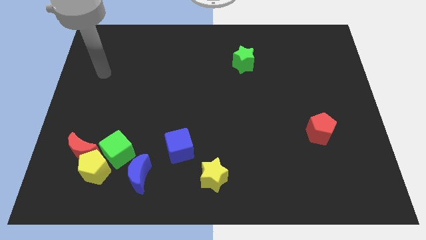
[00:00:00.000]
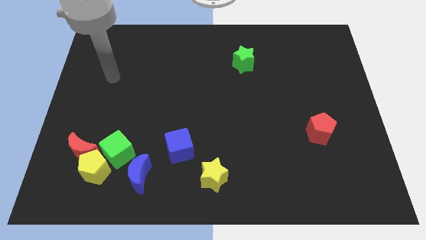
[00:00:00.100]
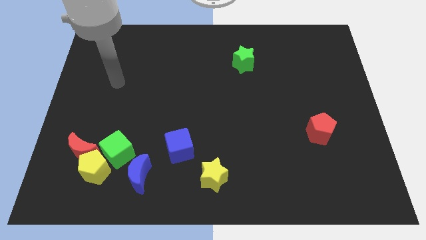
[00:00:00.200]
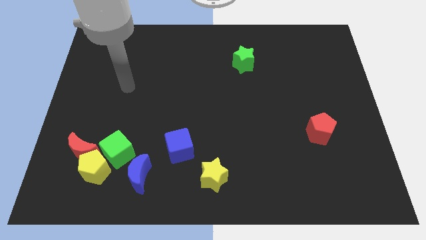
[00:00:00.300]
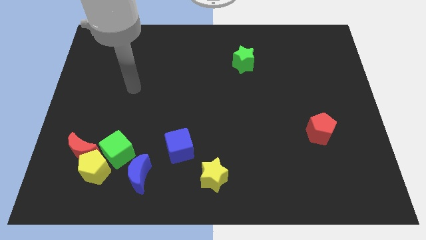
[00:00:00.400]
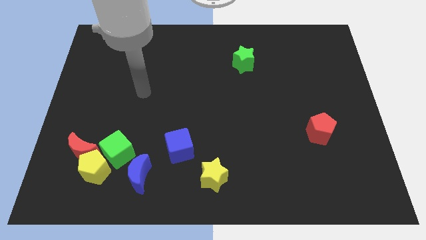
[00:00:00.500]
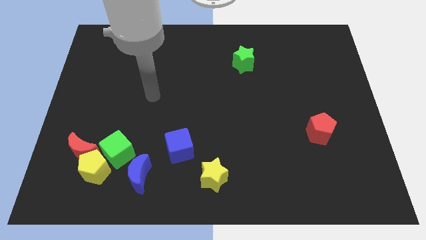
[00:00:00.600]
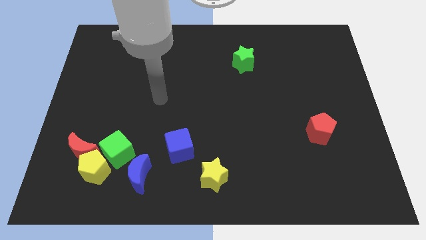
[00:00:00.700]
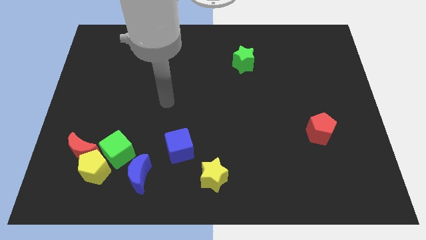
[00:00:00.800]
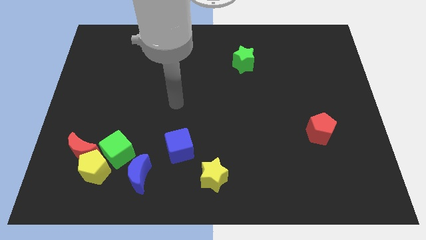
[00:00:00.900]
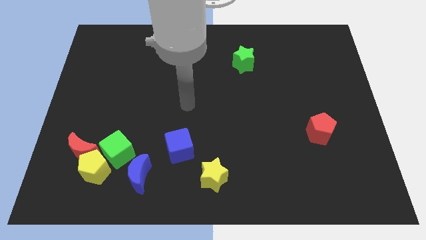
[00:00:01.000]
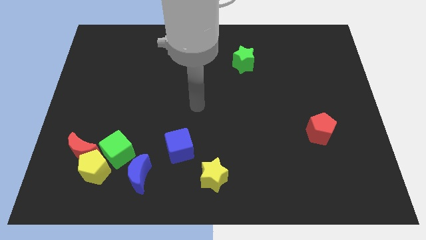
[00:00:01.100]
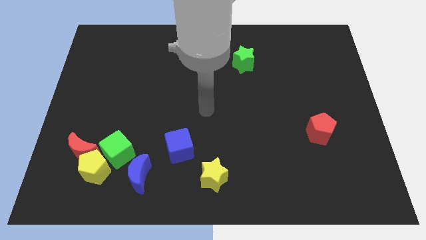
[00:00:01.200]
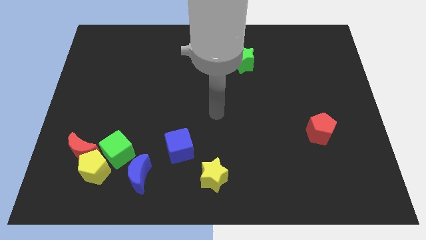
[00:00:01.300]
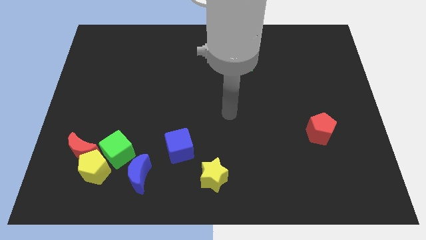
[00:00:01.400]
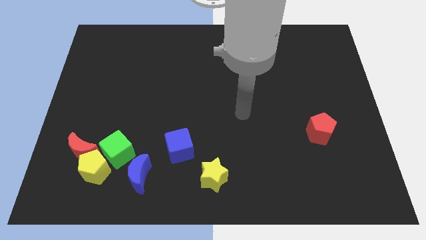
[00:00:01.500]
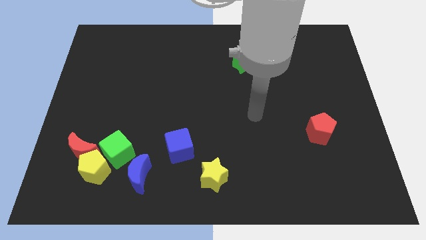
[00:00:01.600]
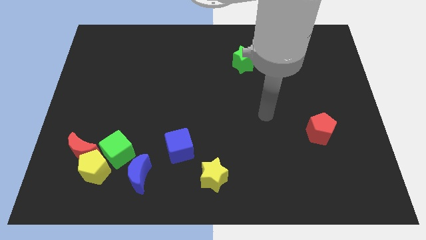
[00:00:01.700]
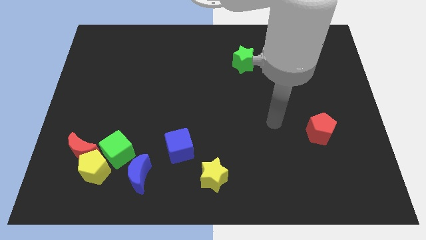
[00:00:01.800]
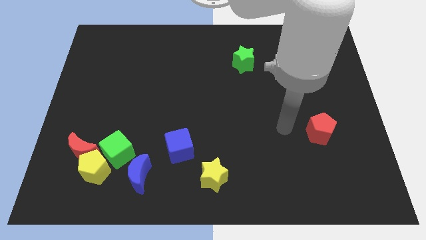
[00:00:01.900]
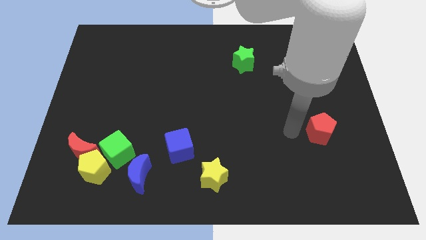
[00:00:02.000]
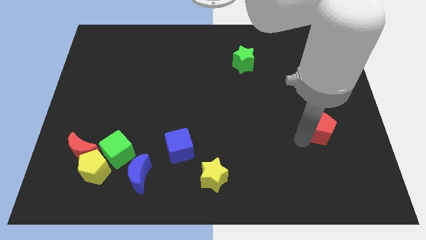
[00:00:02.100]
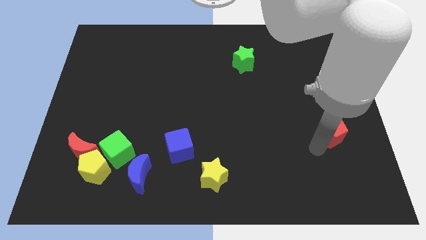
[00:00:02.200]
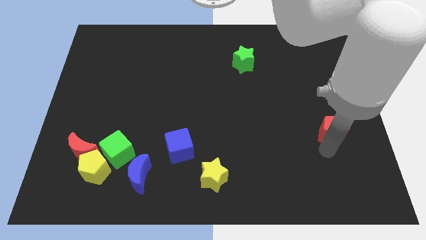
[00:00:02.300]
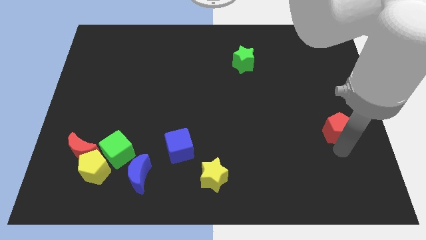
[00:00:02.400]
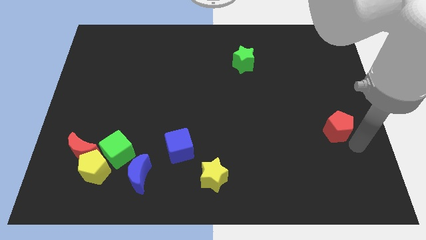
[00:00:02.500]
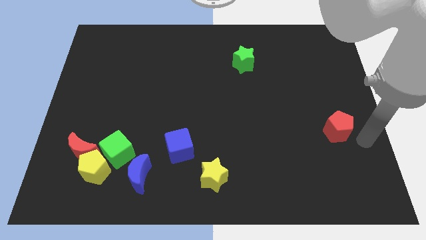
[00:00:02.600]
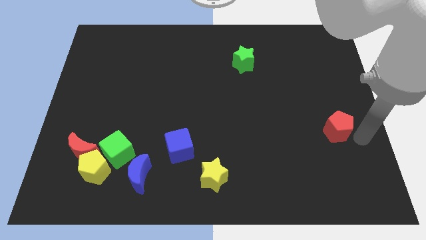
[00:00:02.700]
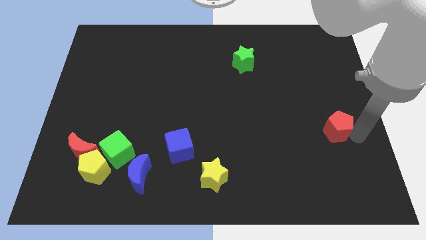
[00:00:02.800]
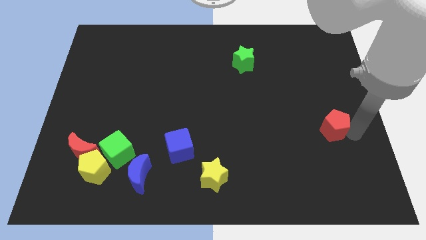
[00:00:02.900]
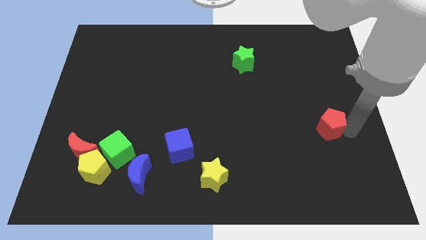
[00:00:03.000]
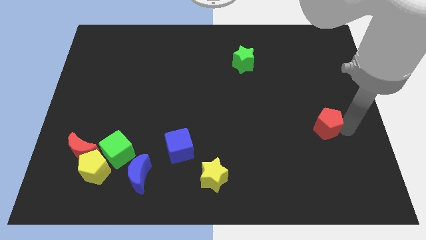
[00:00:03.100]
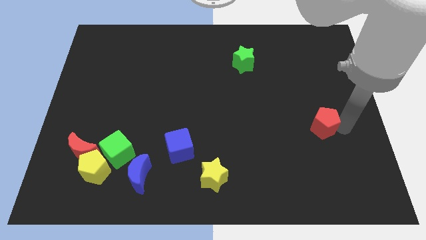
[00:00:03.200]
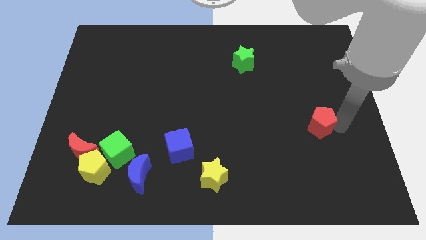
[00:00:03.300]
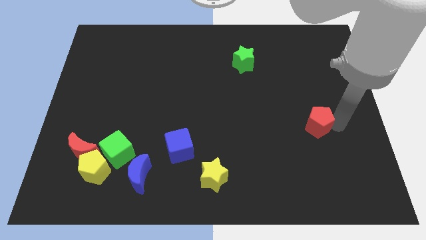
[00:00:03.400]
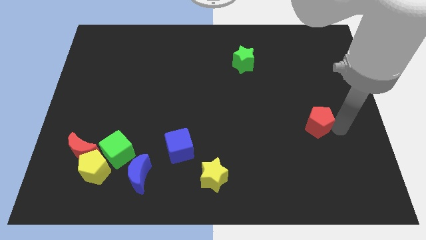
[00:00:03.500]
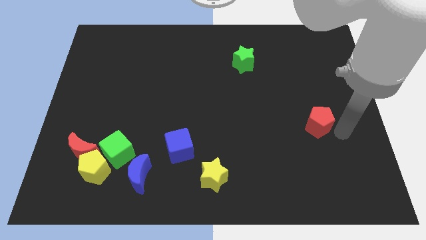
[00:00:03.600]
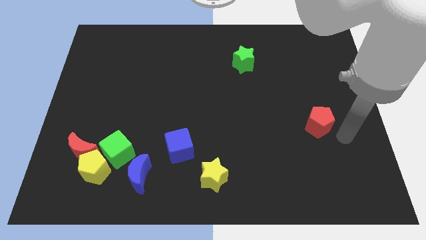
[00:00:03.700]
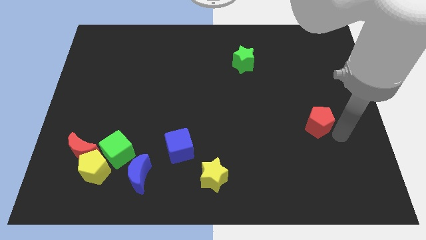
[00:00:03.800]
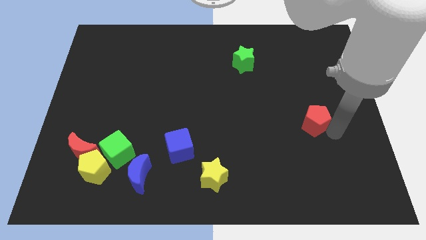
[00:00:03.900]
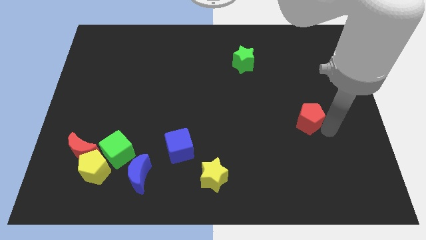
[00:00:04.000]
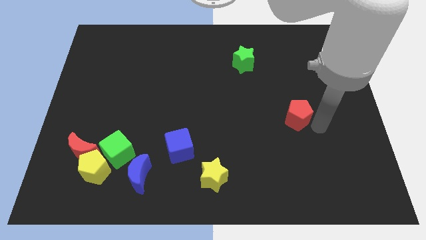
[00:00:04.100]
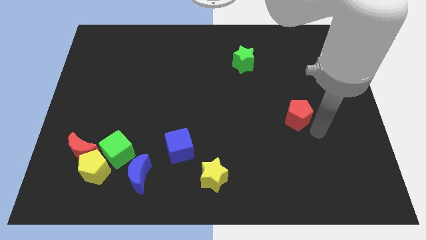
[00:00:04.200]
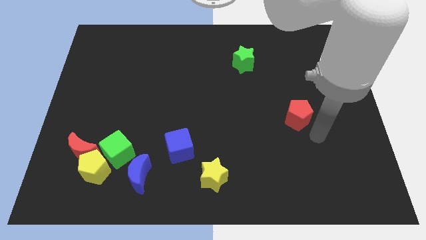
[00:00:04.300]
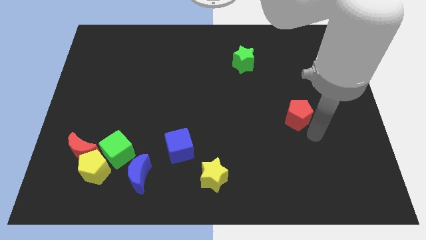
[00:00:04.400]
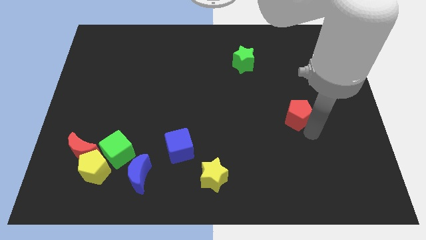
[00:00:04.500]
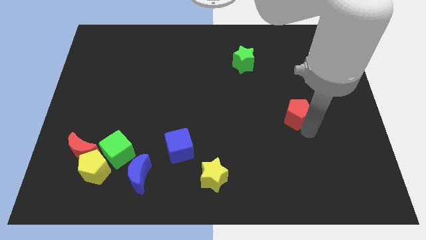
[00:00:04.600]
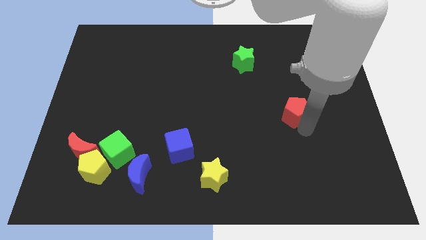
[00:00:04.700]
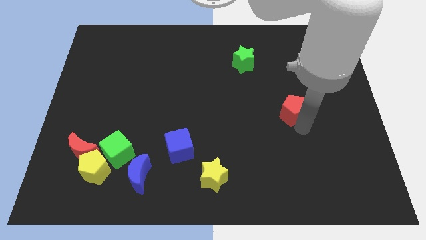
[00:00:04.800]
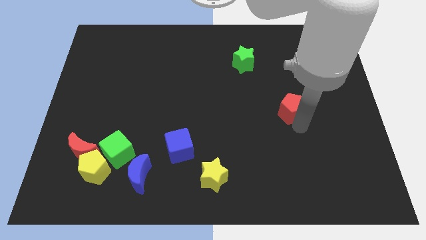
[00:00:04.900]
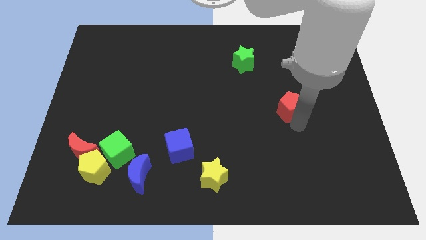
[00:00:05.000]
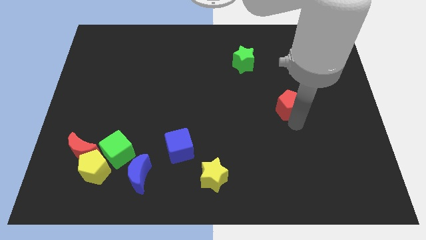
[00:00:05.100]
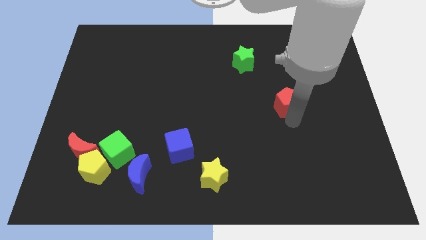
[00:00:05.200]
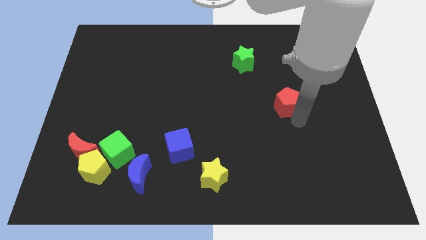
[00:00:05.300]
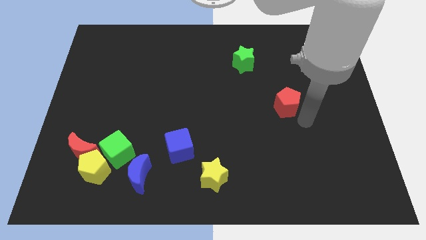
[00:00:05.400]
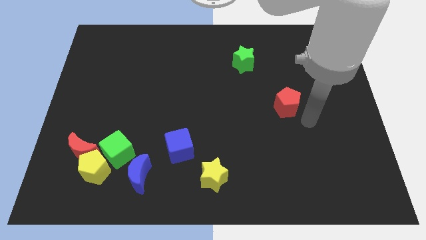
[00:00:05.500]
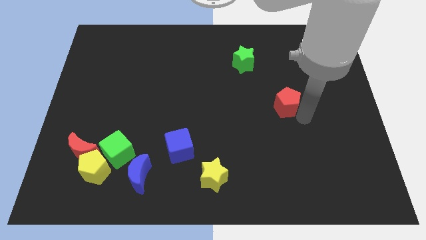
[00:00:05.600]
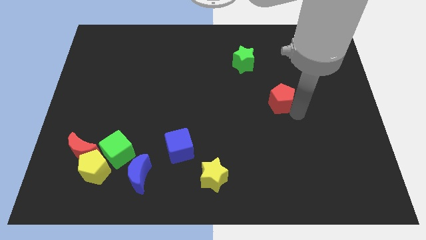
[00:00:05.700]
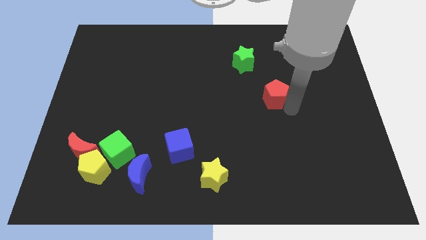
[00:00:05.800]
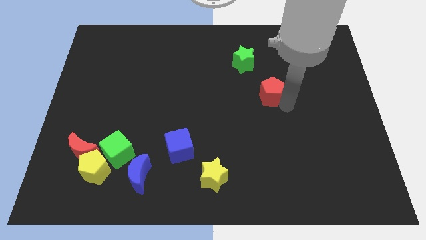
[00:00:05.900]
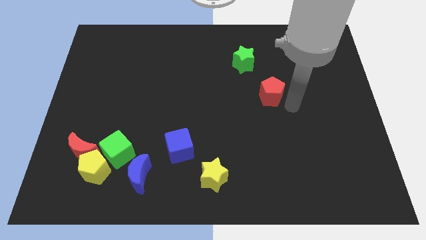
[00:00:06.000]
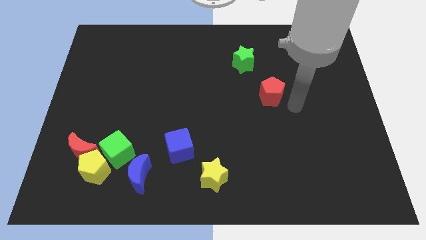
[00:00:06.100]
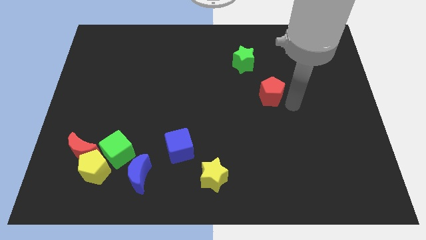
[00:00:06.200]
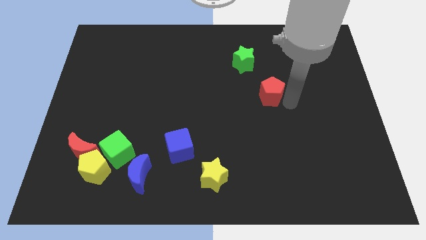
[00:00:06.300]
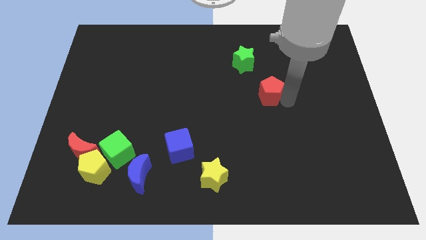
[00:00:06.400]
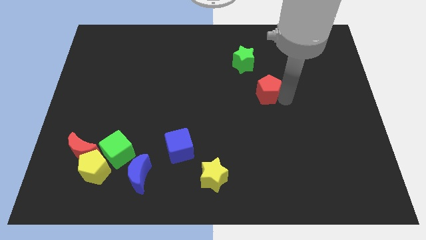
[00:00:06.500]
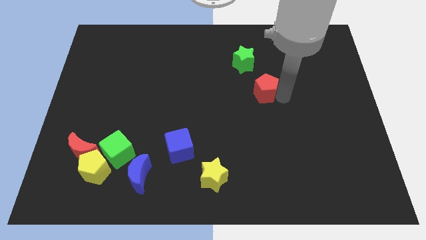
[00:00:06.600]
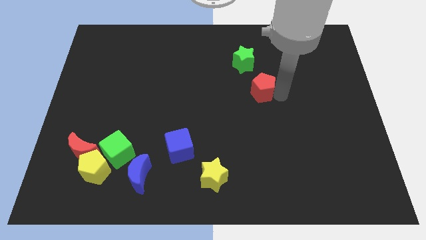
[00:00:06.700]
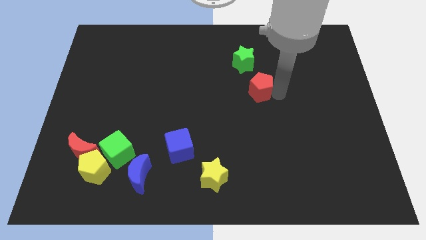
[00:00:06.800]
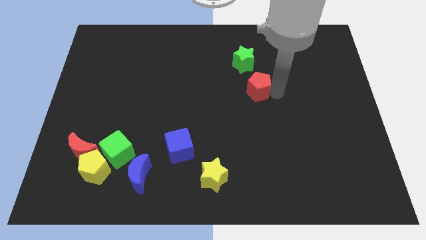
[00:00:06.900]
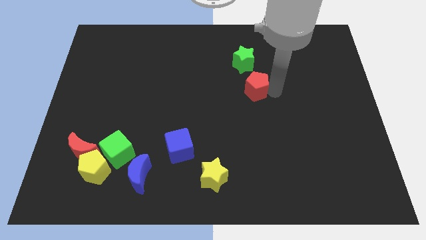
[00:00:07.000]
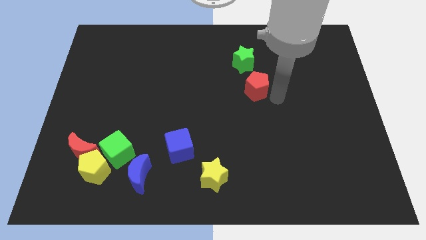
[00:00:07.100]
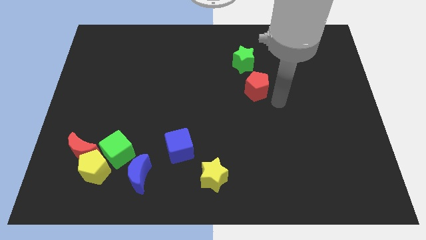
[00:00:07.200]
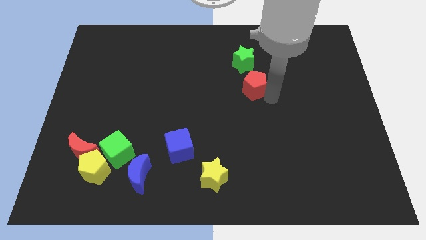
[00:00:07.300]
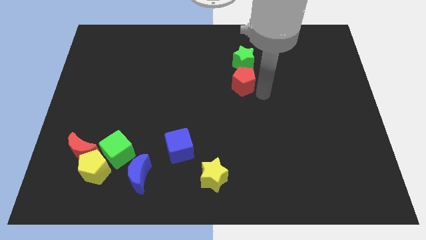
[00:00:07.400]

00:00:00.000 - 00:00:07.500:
move the red pentagon upwards and then left

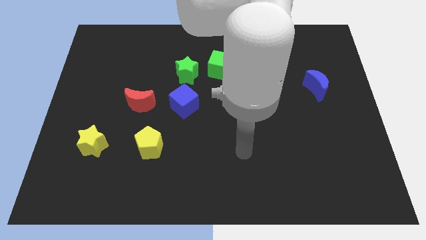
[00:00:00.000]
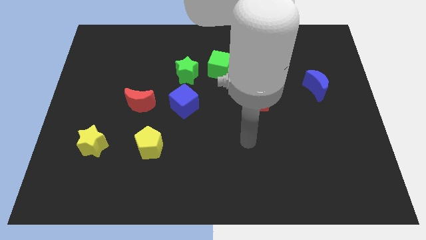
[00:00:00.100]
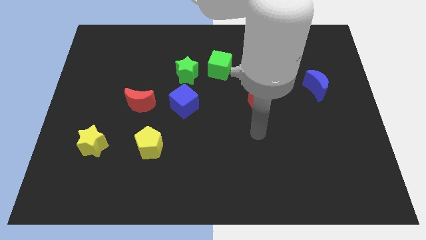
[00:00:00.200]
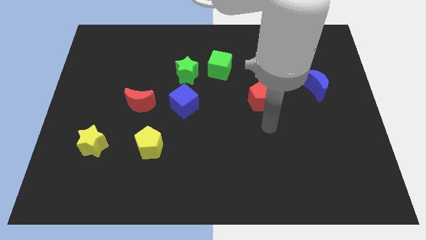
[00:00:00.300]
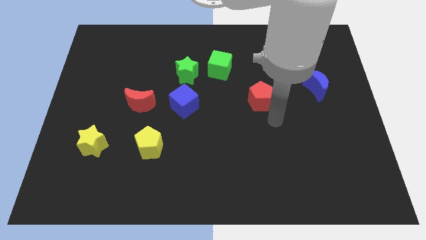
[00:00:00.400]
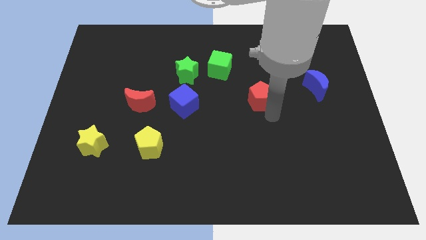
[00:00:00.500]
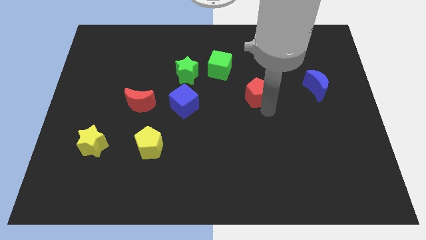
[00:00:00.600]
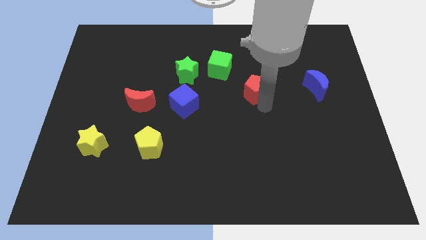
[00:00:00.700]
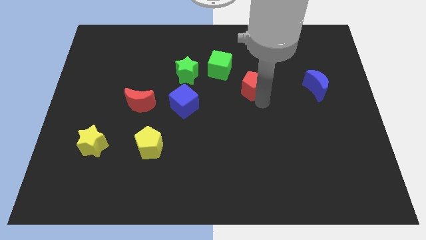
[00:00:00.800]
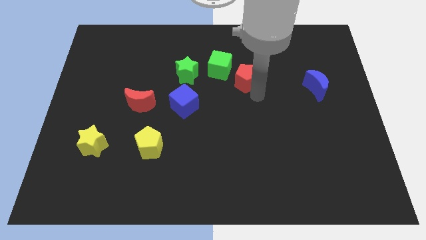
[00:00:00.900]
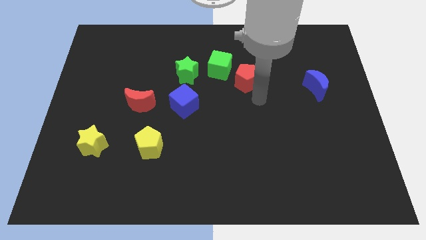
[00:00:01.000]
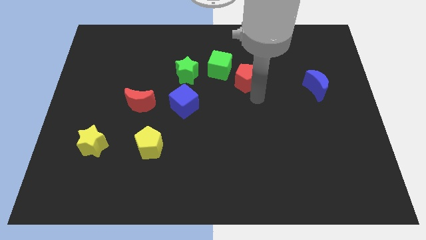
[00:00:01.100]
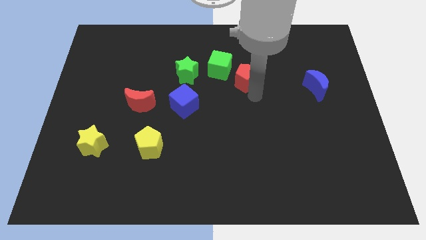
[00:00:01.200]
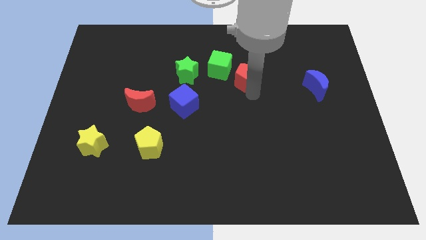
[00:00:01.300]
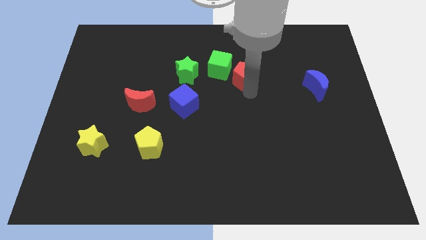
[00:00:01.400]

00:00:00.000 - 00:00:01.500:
push the red pentagon a little bit upwards and left
